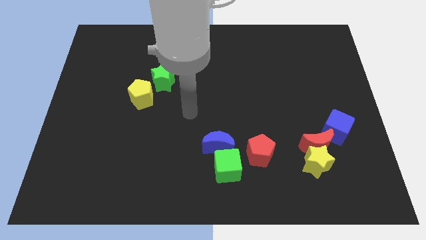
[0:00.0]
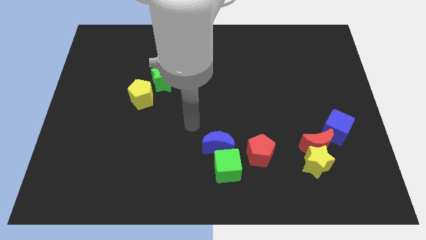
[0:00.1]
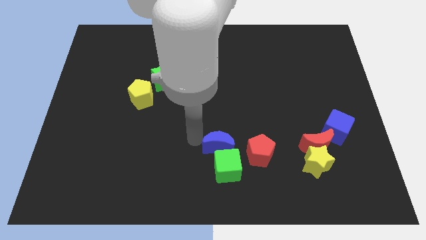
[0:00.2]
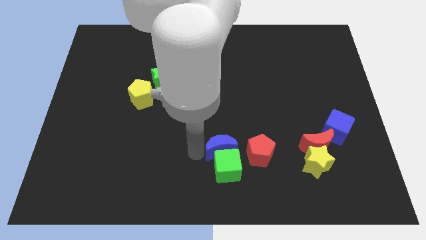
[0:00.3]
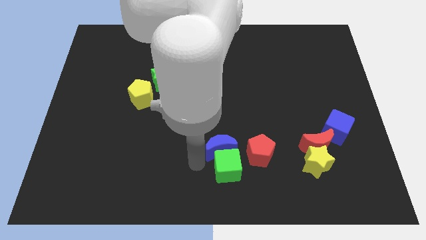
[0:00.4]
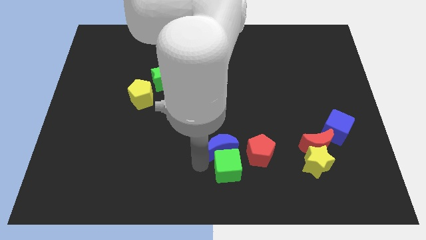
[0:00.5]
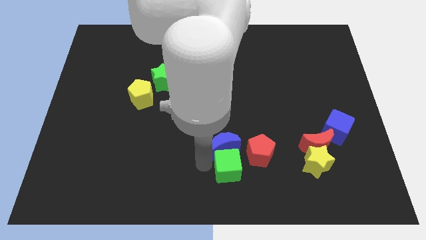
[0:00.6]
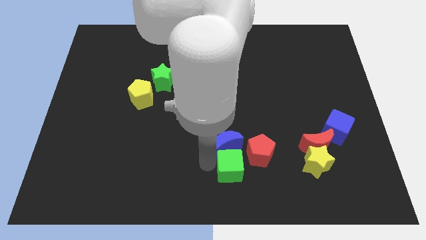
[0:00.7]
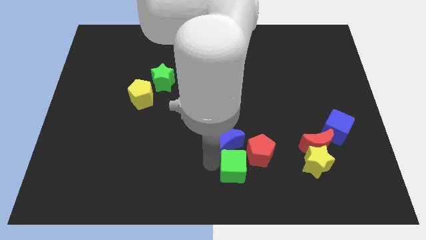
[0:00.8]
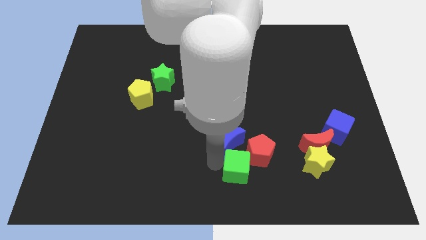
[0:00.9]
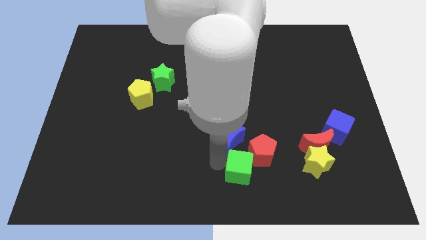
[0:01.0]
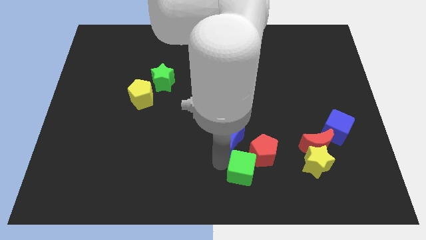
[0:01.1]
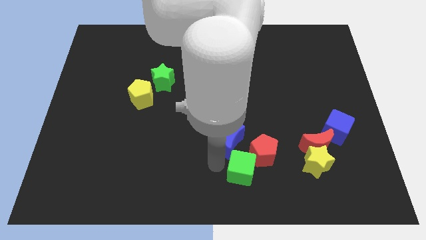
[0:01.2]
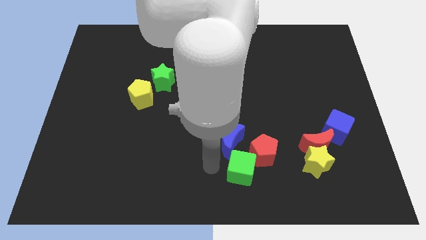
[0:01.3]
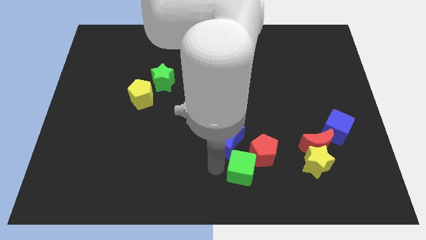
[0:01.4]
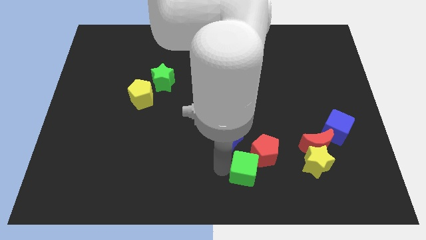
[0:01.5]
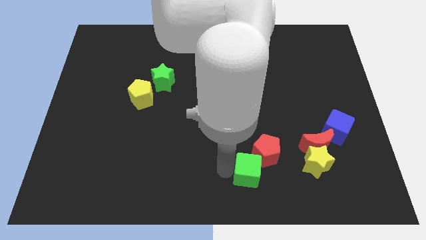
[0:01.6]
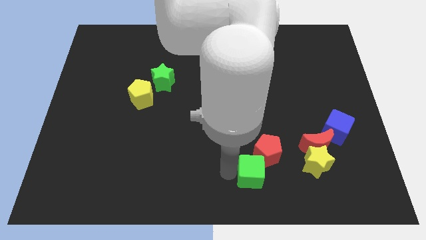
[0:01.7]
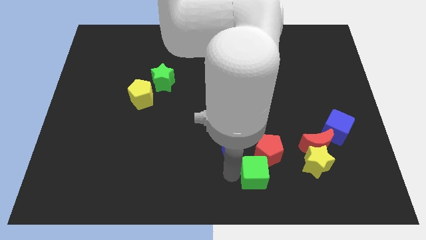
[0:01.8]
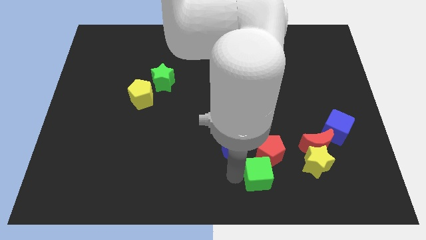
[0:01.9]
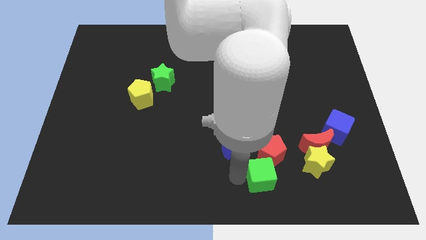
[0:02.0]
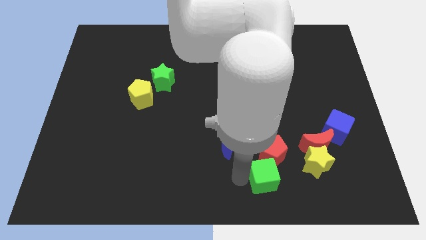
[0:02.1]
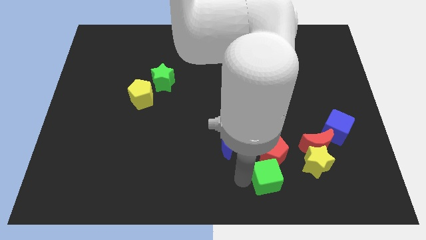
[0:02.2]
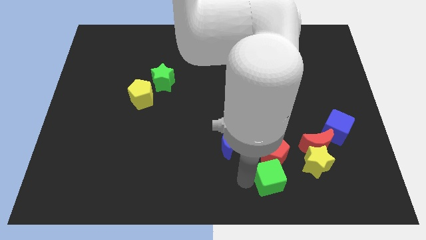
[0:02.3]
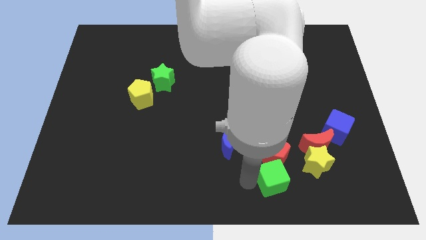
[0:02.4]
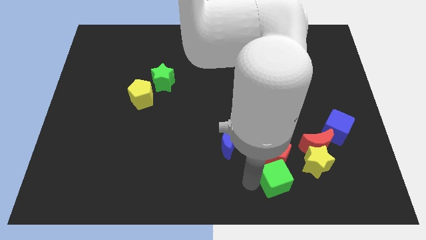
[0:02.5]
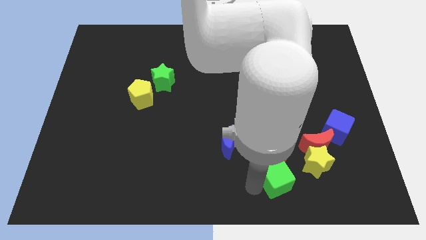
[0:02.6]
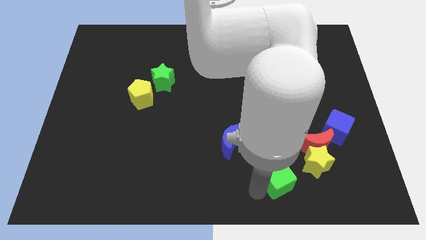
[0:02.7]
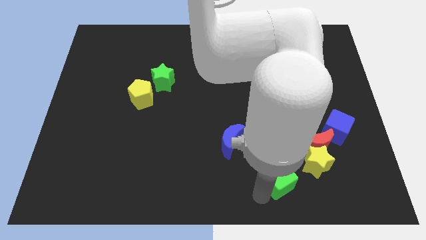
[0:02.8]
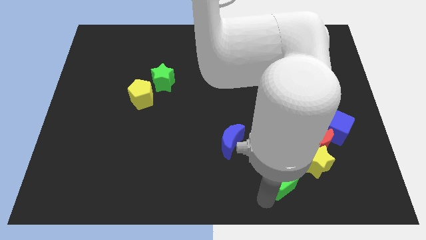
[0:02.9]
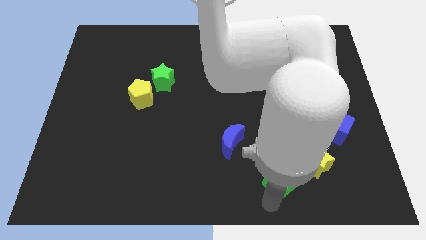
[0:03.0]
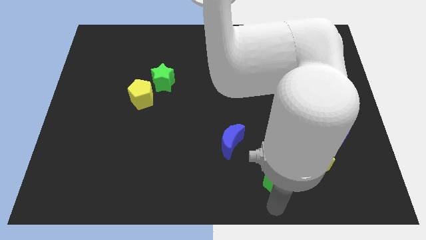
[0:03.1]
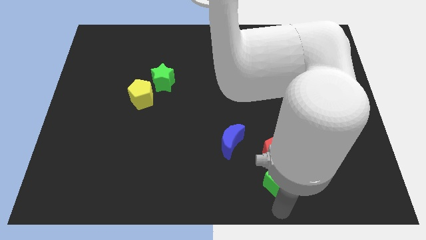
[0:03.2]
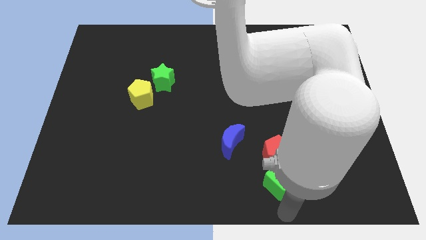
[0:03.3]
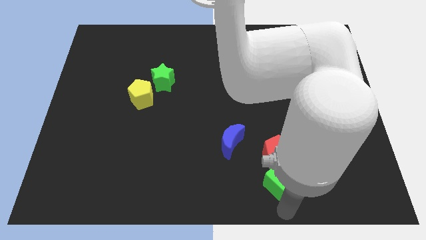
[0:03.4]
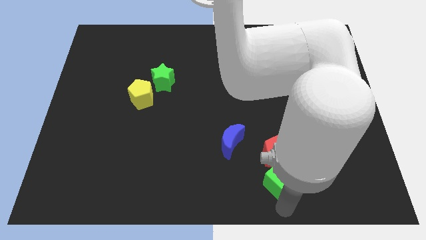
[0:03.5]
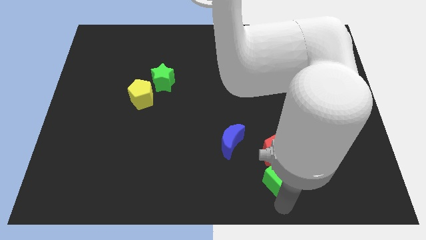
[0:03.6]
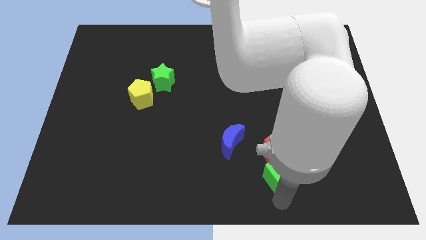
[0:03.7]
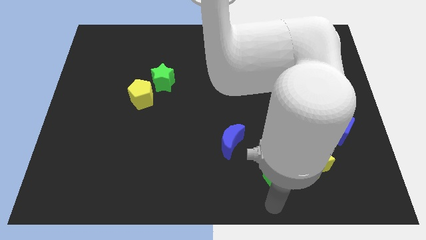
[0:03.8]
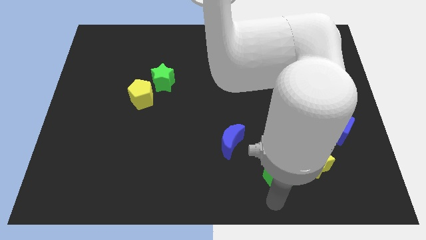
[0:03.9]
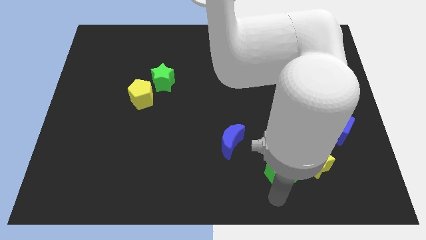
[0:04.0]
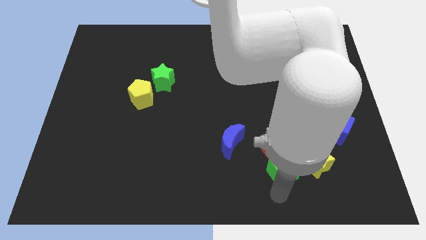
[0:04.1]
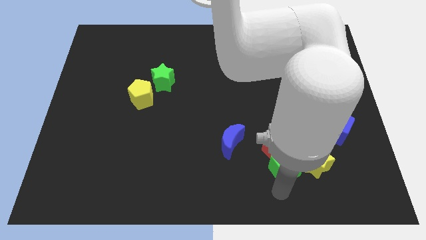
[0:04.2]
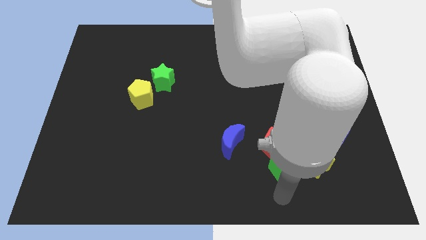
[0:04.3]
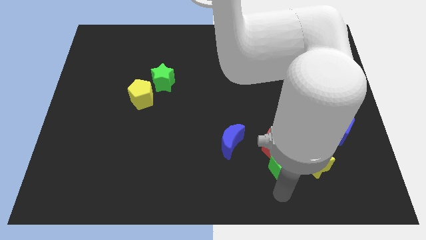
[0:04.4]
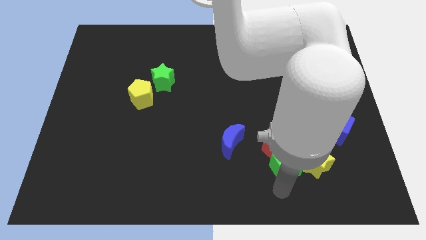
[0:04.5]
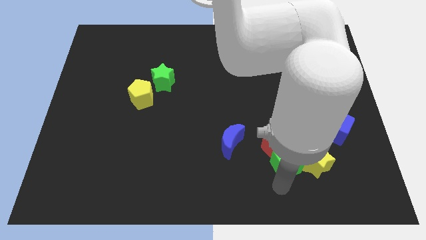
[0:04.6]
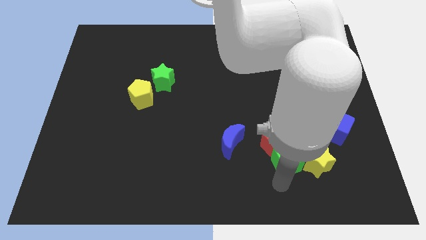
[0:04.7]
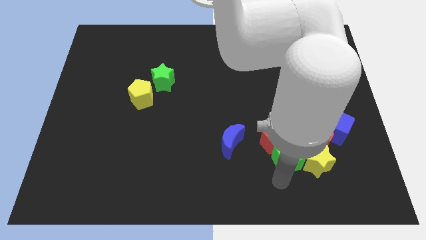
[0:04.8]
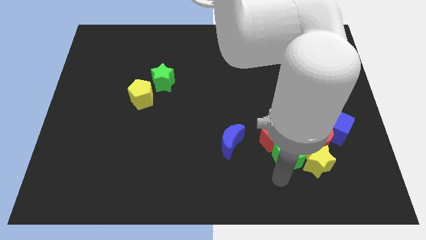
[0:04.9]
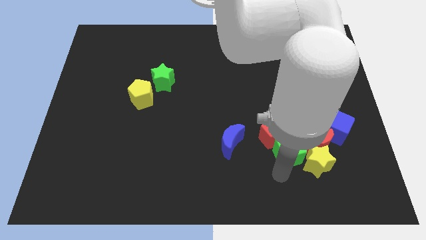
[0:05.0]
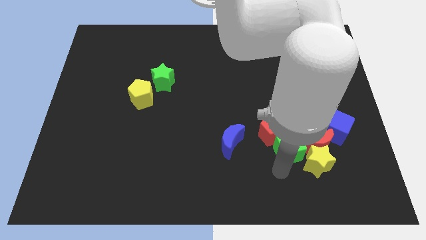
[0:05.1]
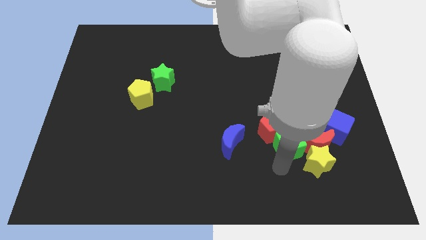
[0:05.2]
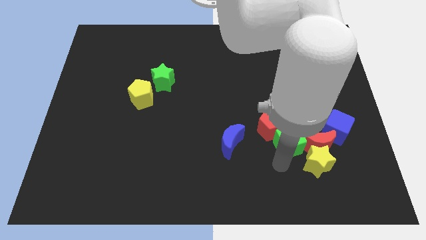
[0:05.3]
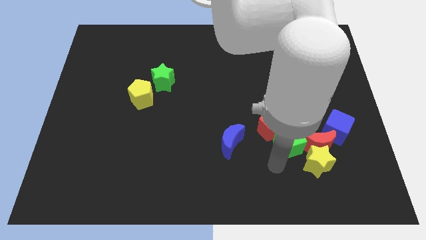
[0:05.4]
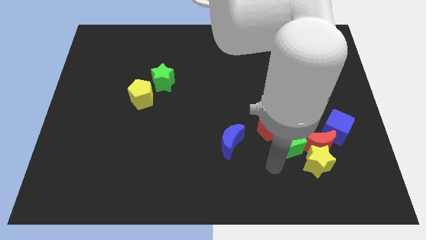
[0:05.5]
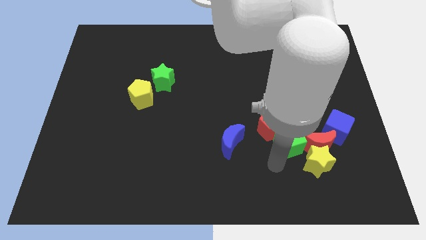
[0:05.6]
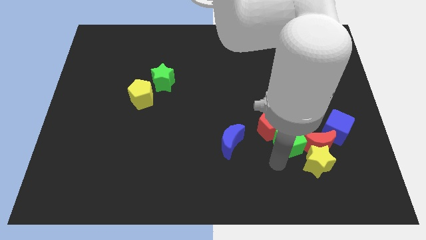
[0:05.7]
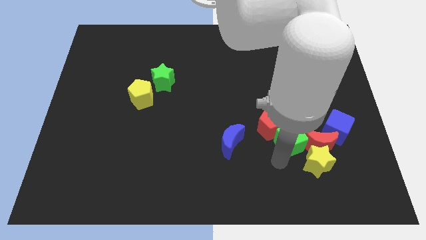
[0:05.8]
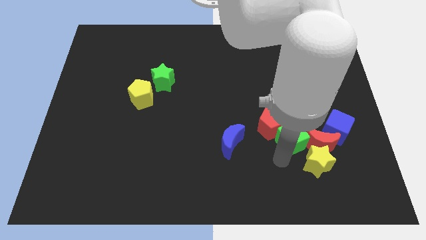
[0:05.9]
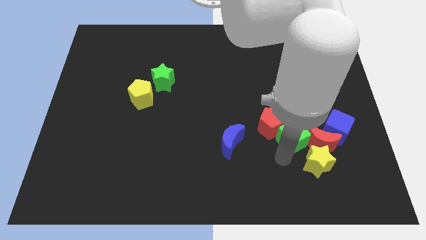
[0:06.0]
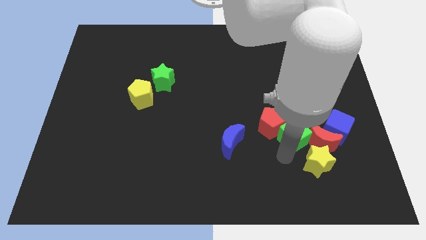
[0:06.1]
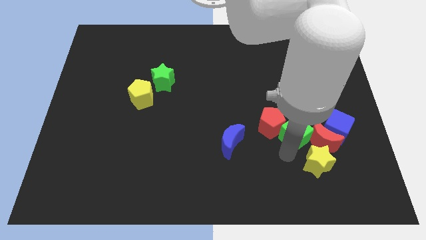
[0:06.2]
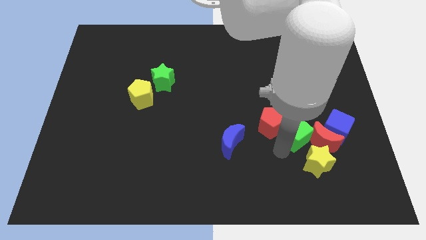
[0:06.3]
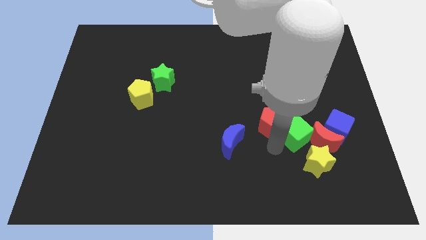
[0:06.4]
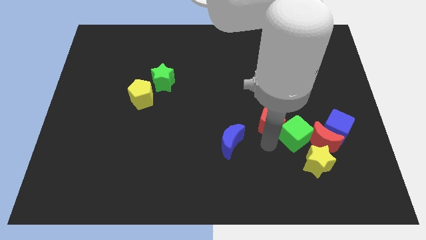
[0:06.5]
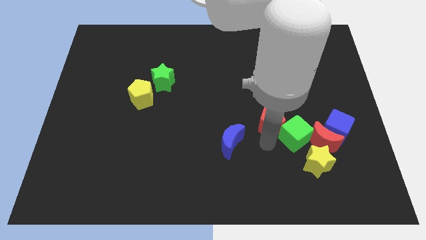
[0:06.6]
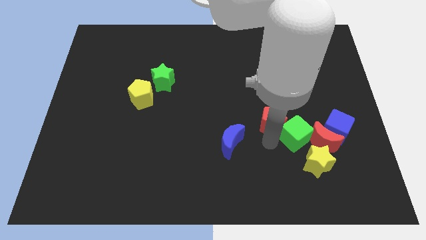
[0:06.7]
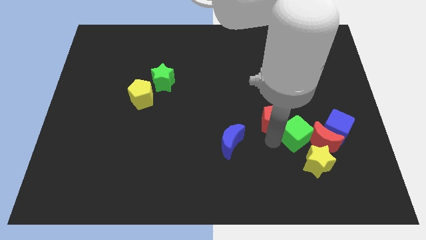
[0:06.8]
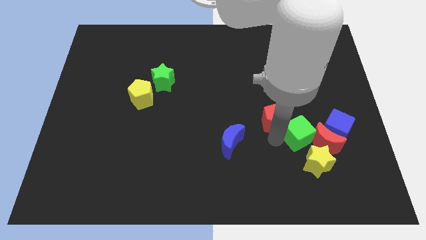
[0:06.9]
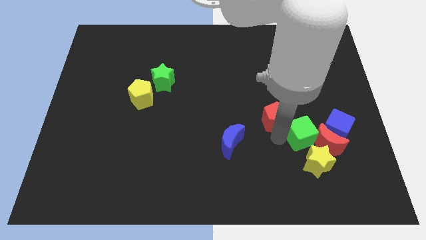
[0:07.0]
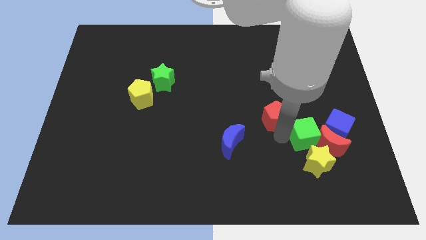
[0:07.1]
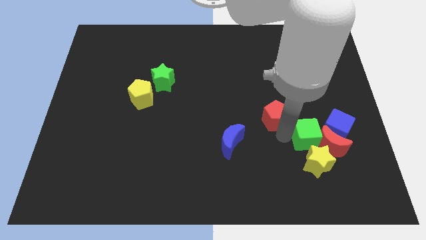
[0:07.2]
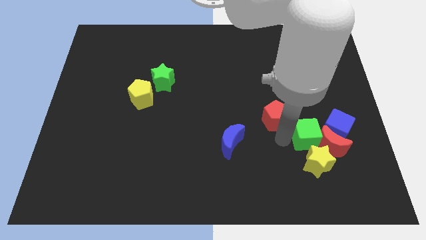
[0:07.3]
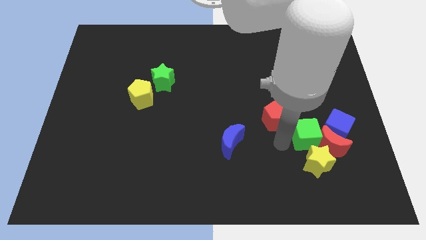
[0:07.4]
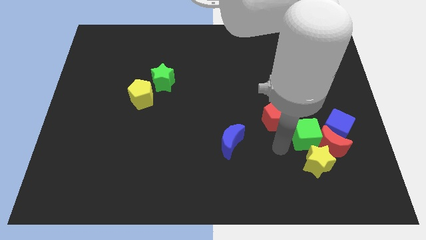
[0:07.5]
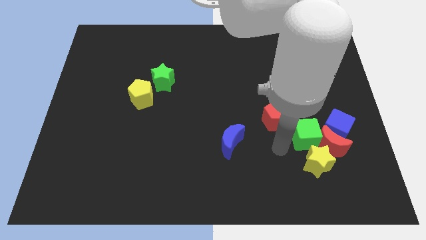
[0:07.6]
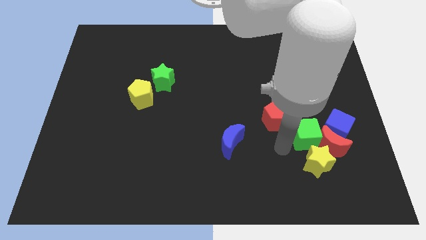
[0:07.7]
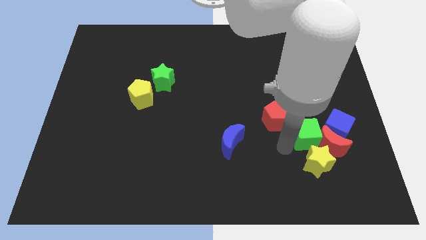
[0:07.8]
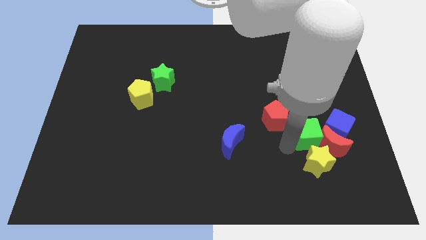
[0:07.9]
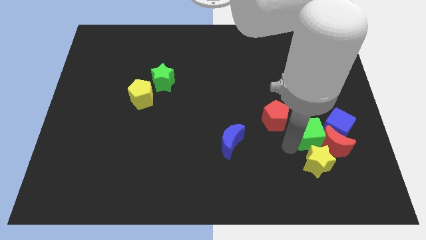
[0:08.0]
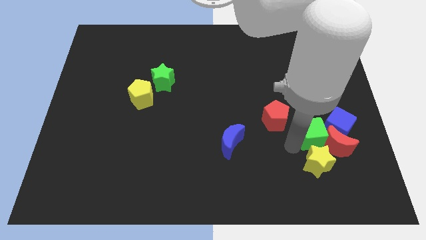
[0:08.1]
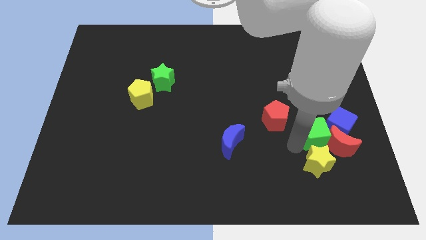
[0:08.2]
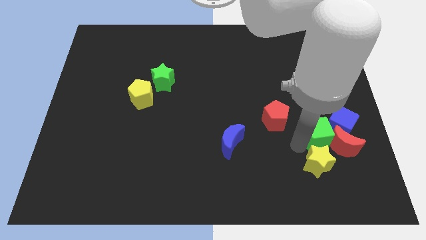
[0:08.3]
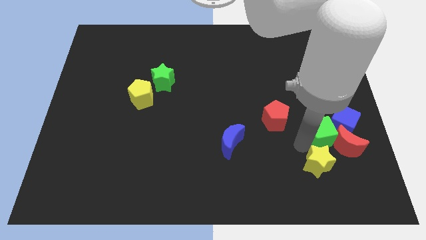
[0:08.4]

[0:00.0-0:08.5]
slide the green cube towards the blue cube
